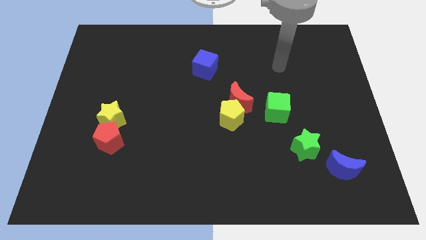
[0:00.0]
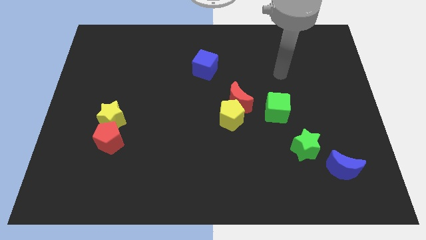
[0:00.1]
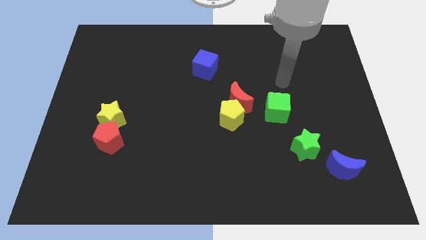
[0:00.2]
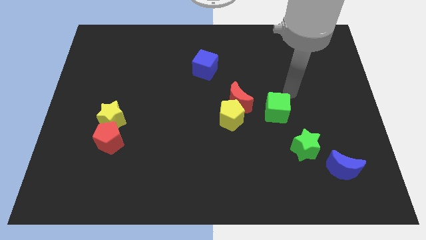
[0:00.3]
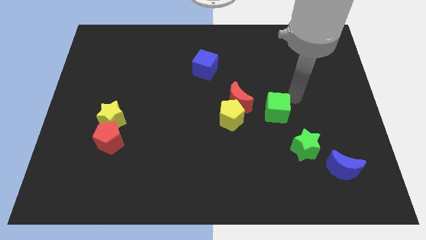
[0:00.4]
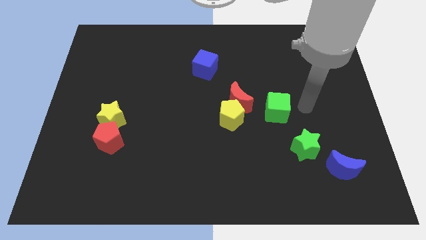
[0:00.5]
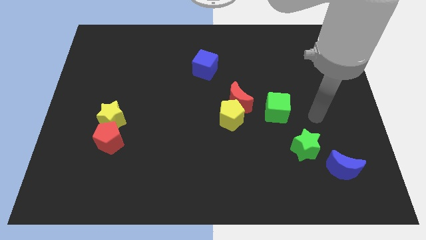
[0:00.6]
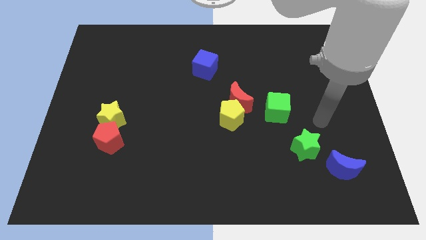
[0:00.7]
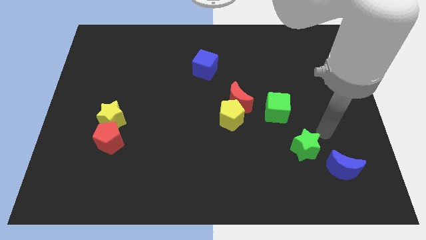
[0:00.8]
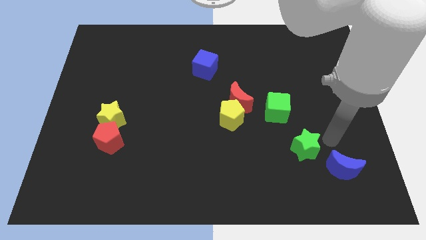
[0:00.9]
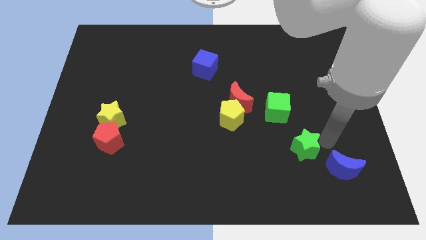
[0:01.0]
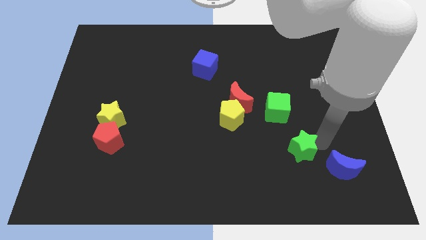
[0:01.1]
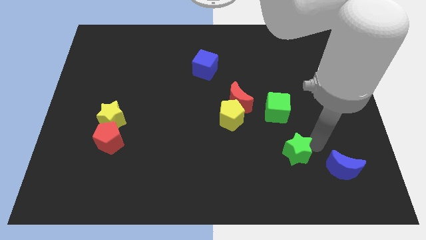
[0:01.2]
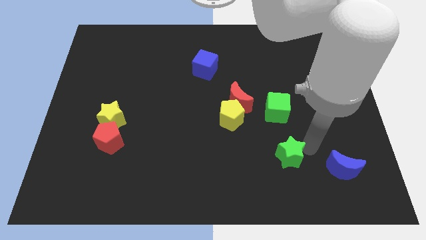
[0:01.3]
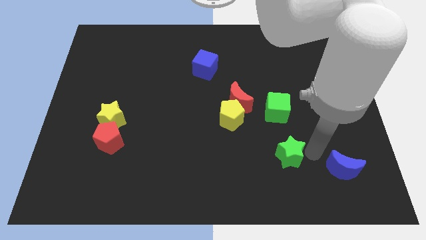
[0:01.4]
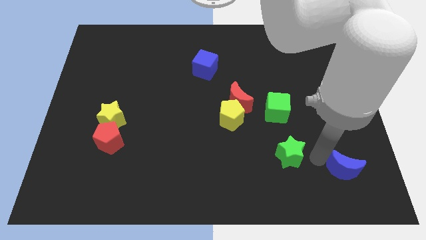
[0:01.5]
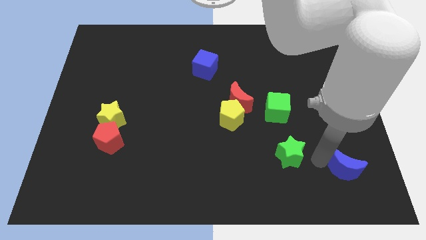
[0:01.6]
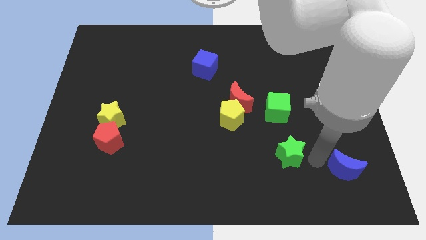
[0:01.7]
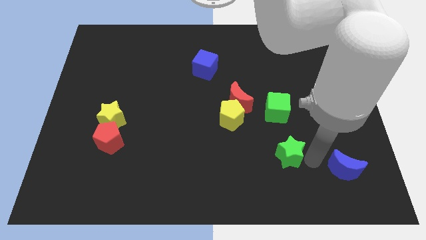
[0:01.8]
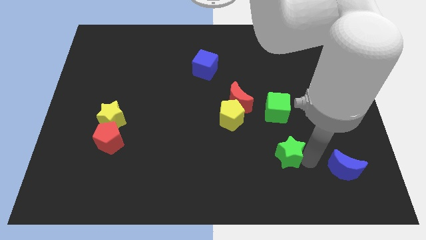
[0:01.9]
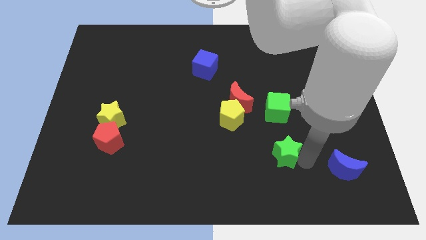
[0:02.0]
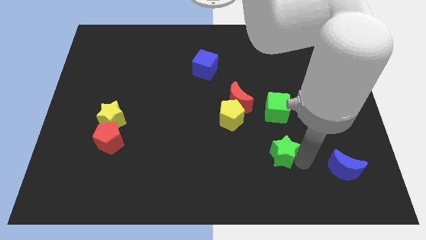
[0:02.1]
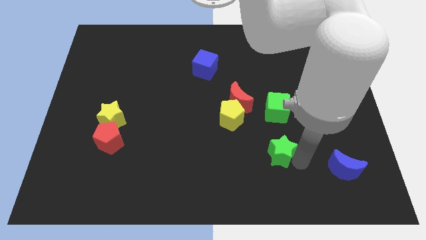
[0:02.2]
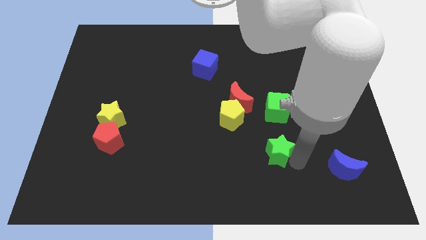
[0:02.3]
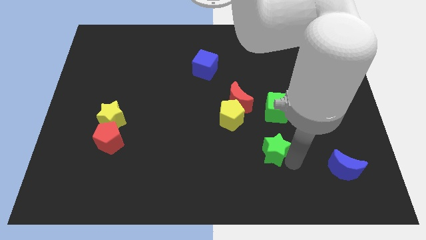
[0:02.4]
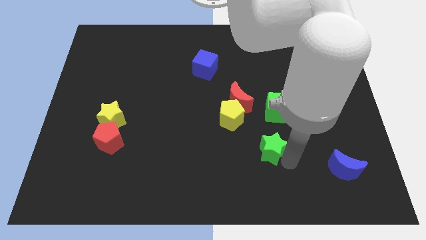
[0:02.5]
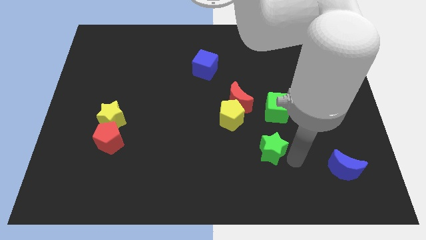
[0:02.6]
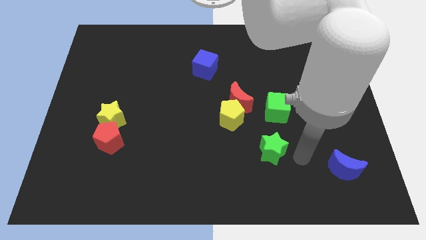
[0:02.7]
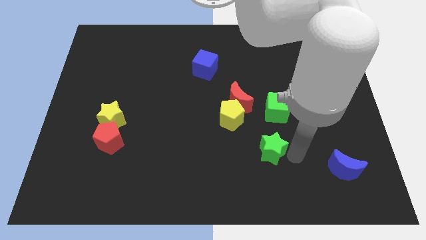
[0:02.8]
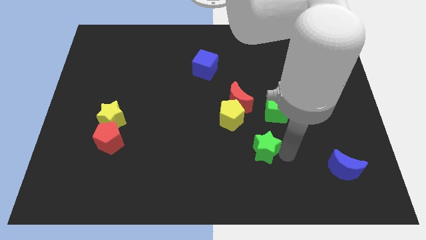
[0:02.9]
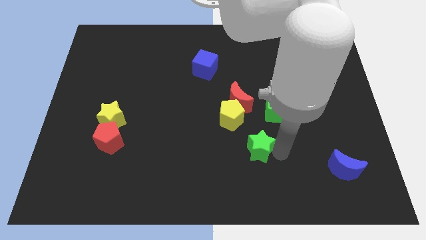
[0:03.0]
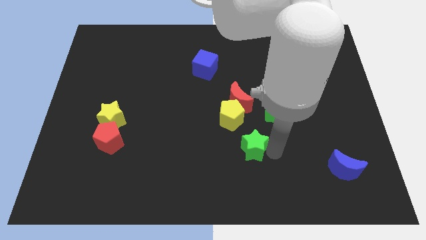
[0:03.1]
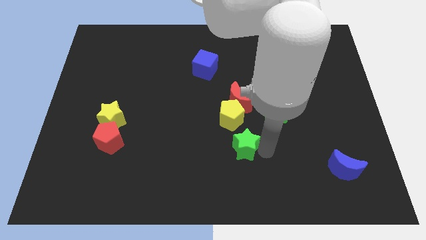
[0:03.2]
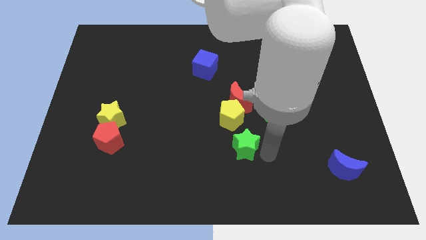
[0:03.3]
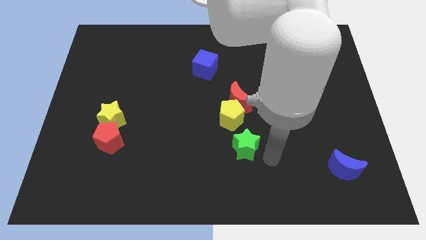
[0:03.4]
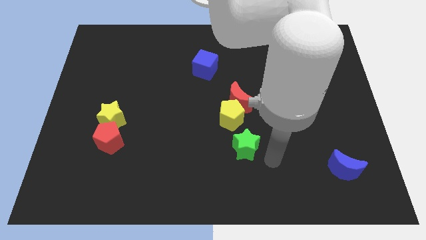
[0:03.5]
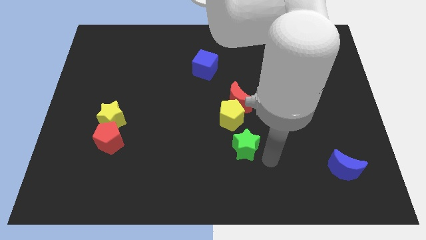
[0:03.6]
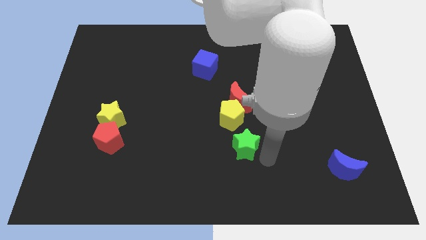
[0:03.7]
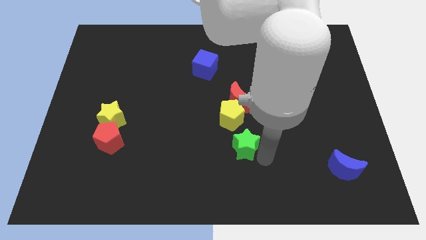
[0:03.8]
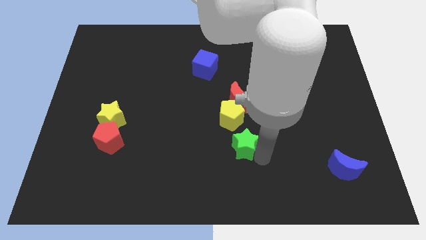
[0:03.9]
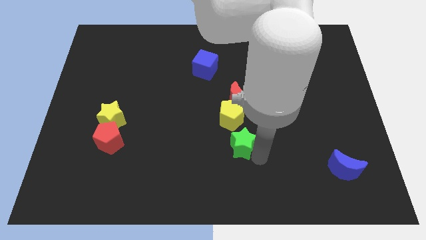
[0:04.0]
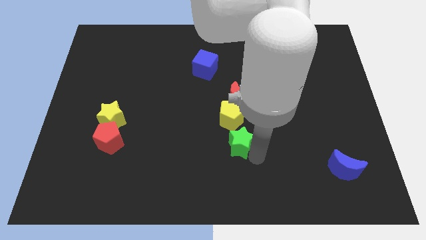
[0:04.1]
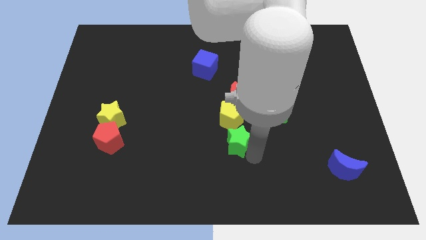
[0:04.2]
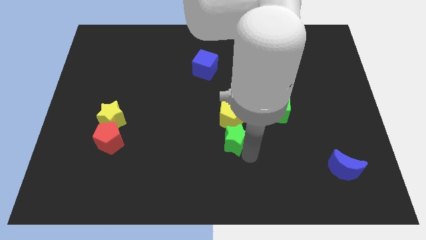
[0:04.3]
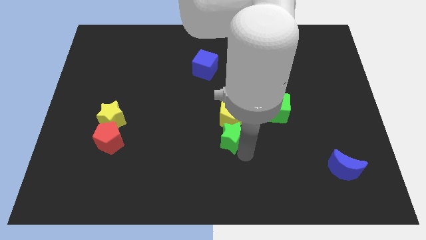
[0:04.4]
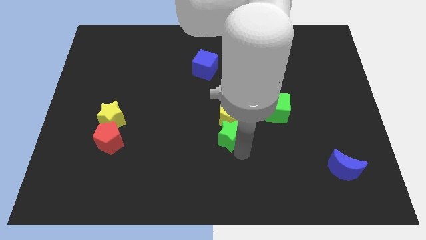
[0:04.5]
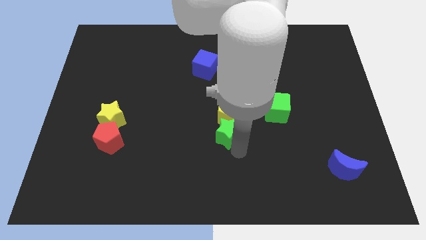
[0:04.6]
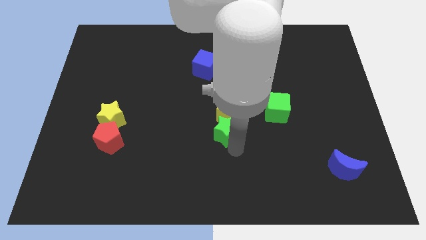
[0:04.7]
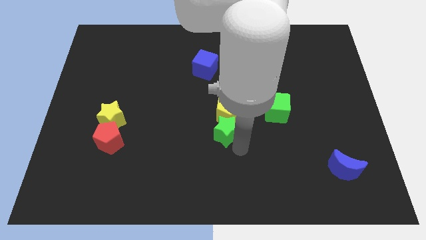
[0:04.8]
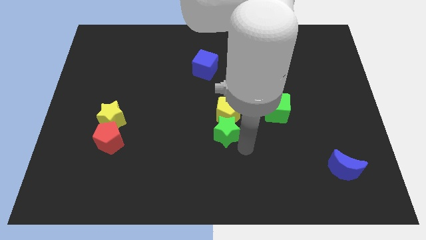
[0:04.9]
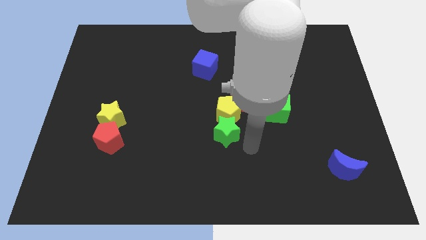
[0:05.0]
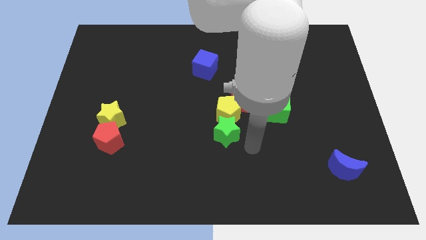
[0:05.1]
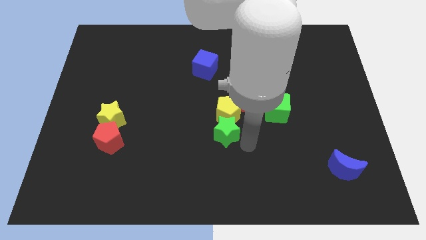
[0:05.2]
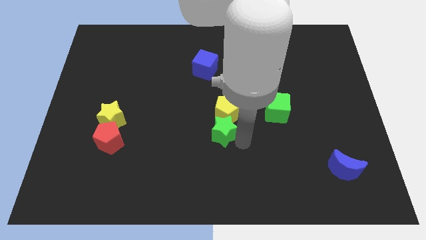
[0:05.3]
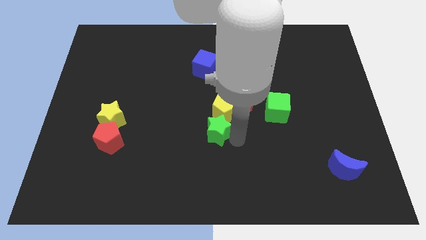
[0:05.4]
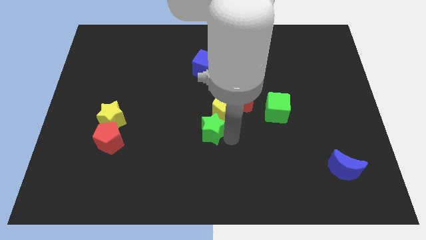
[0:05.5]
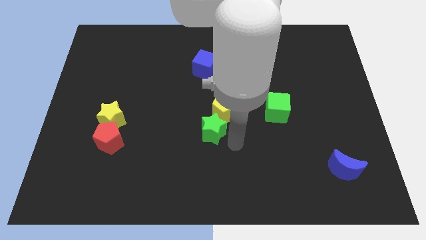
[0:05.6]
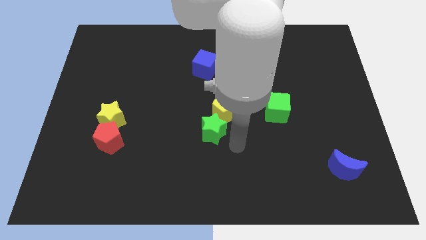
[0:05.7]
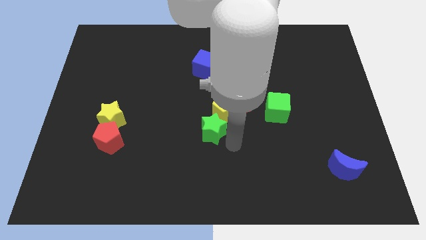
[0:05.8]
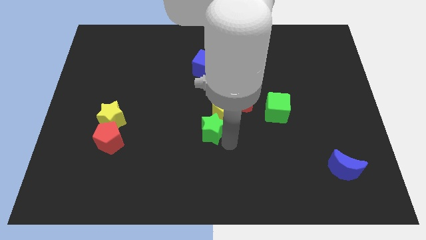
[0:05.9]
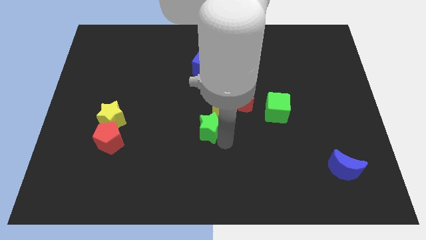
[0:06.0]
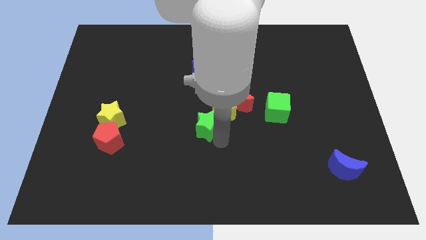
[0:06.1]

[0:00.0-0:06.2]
slide the green star to the left side of the yellow pentagon

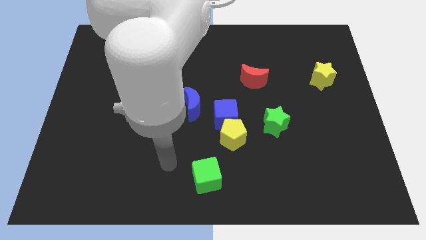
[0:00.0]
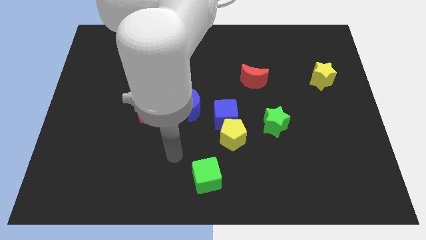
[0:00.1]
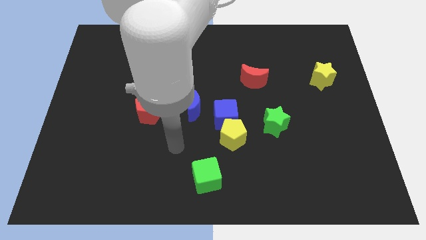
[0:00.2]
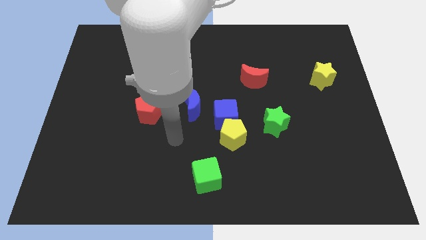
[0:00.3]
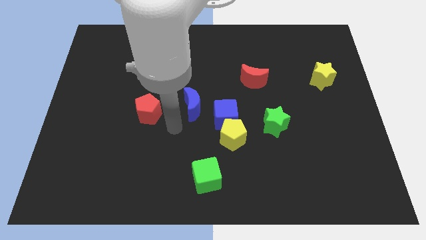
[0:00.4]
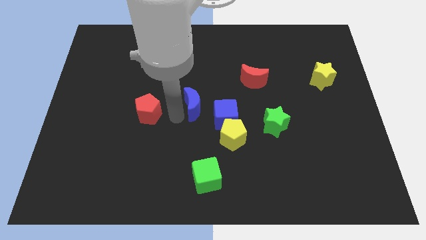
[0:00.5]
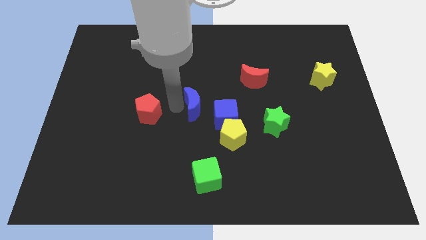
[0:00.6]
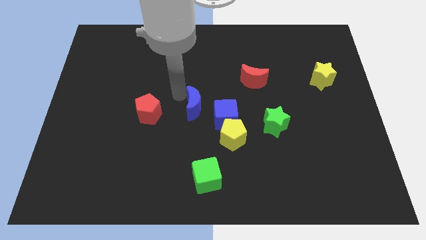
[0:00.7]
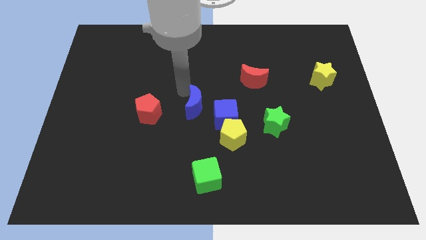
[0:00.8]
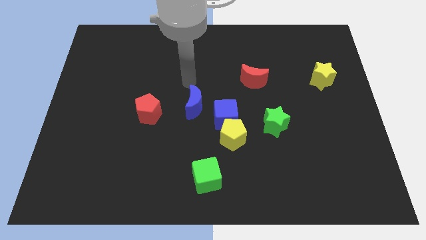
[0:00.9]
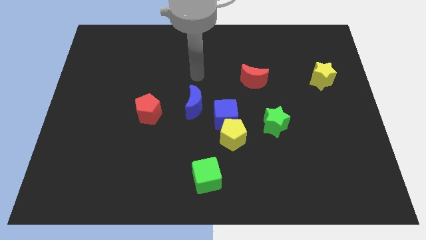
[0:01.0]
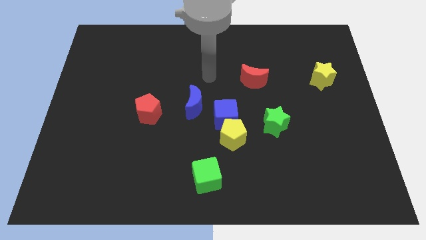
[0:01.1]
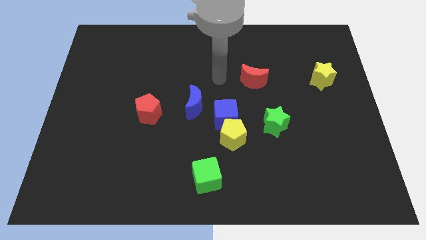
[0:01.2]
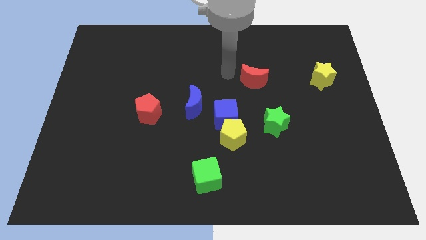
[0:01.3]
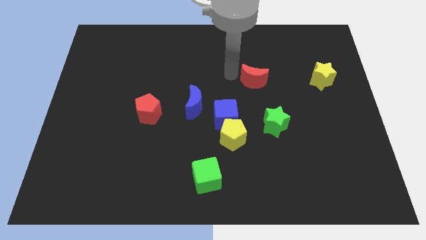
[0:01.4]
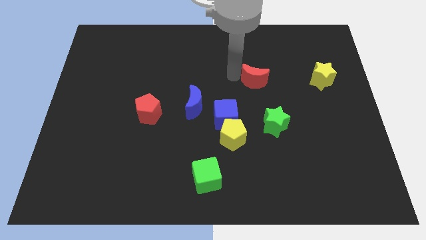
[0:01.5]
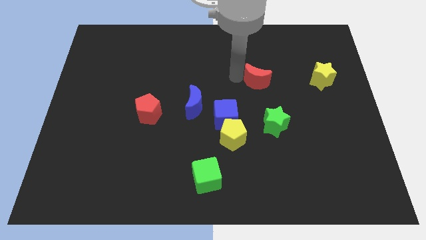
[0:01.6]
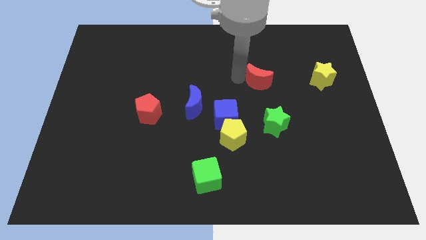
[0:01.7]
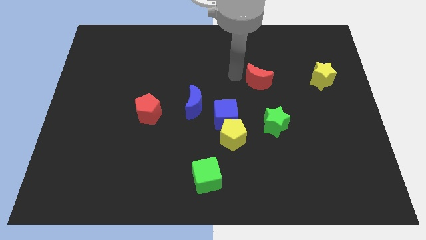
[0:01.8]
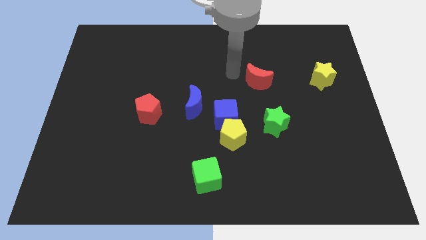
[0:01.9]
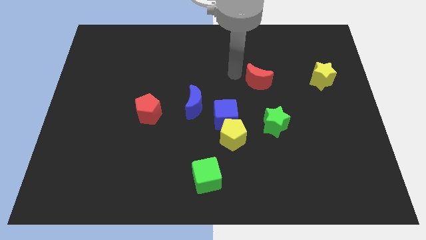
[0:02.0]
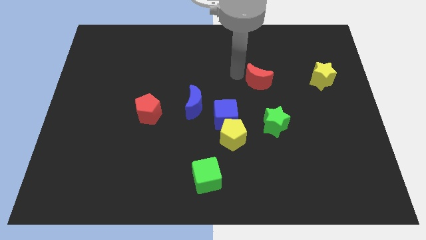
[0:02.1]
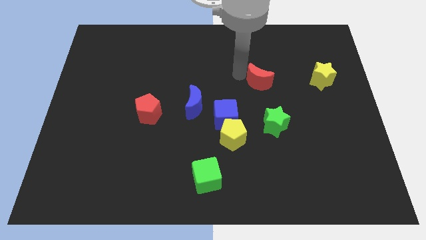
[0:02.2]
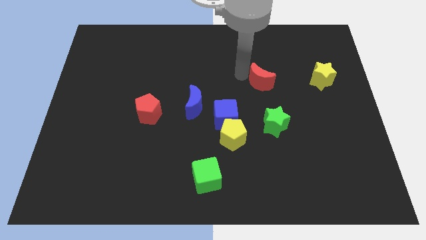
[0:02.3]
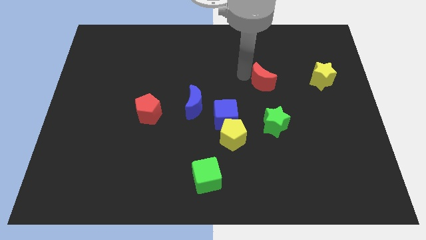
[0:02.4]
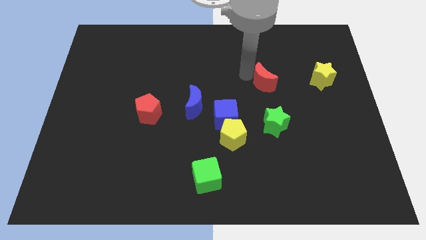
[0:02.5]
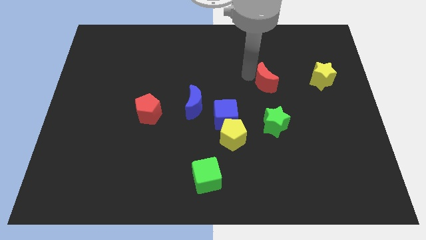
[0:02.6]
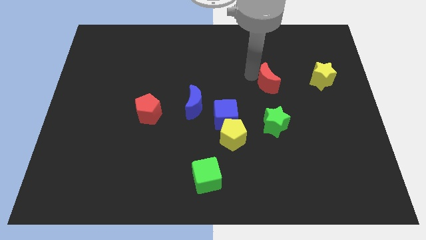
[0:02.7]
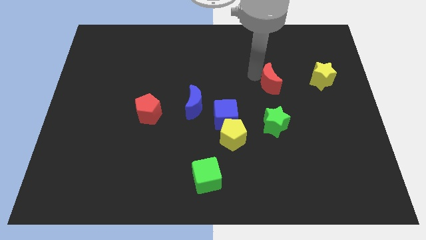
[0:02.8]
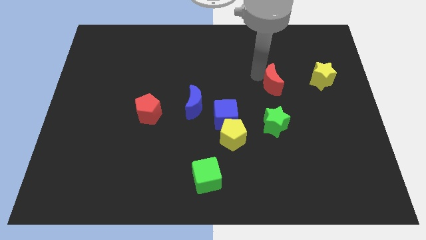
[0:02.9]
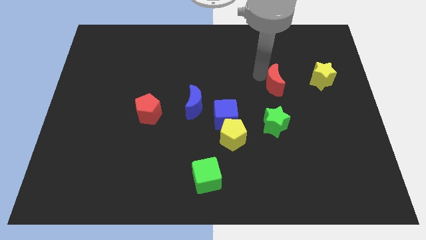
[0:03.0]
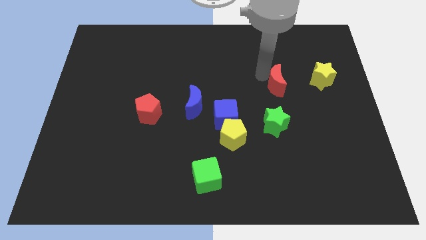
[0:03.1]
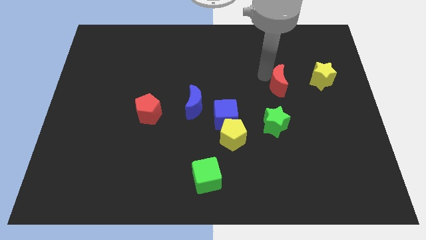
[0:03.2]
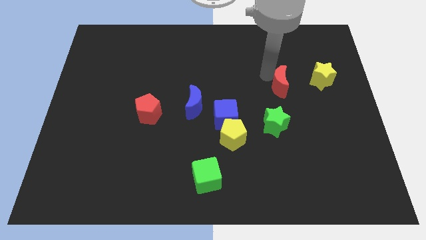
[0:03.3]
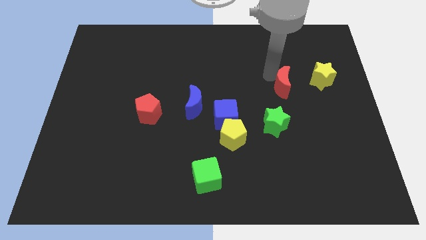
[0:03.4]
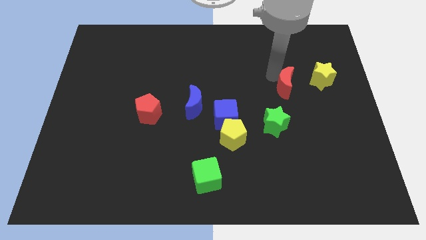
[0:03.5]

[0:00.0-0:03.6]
push the red moon to the bottom left of the yellow star
